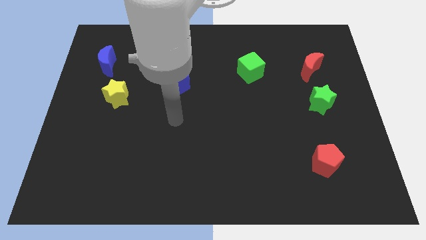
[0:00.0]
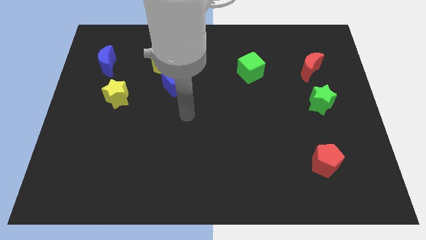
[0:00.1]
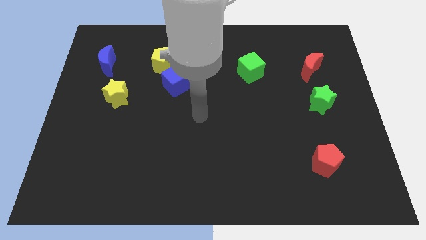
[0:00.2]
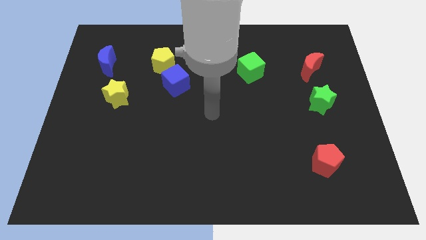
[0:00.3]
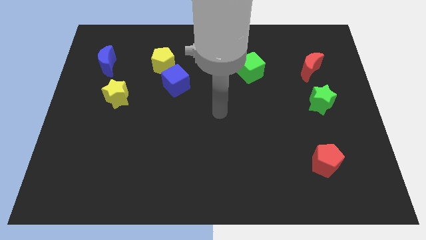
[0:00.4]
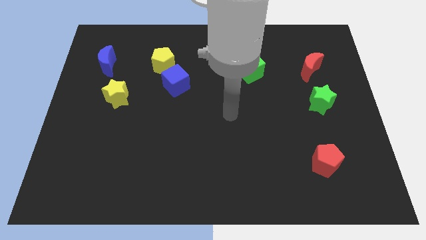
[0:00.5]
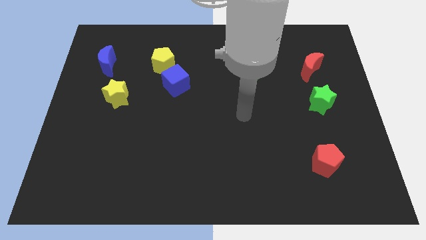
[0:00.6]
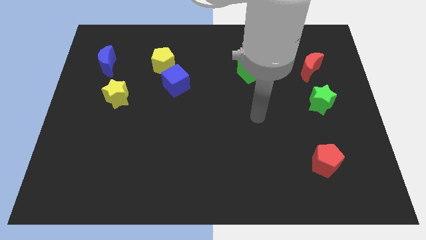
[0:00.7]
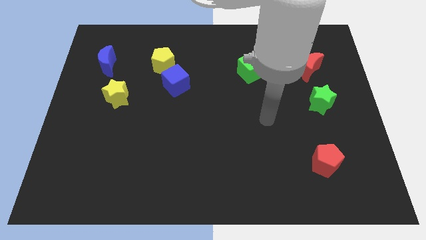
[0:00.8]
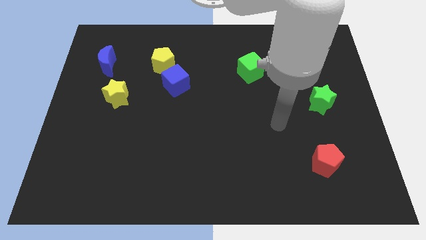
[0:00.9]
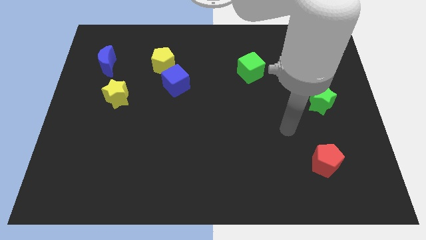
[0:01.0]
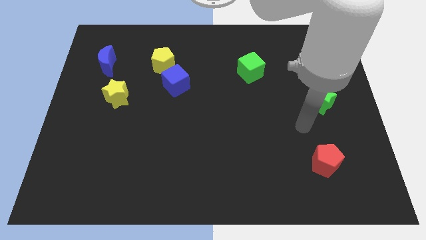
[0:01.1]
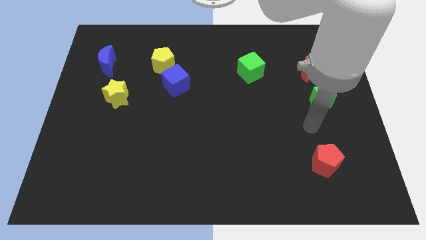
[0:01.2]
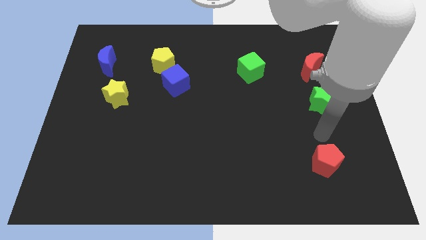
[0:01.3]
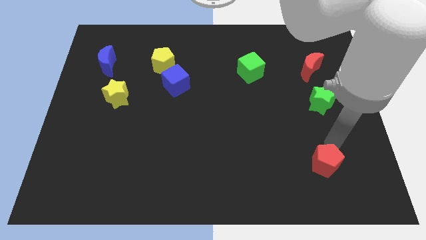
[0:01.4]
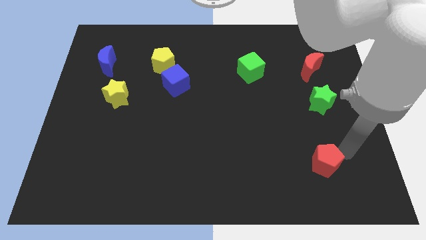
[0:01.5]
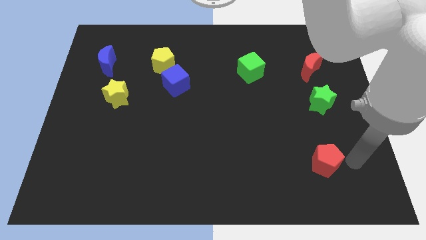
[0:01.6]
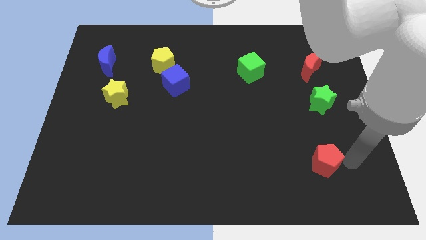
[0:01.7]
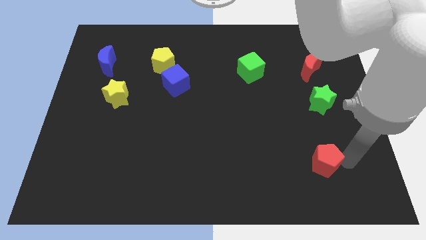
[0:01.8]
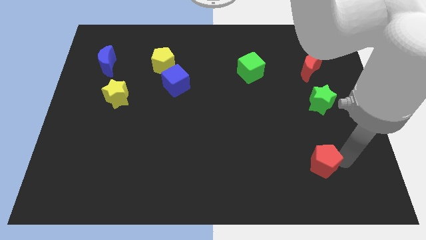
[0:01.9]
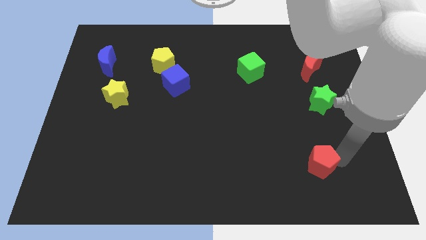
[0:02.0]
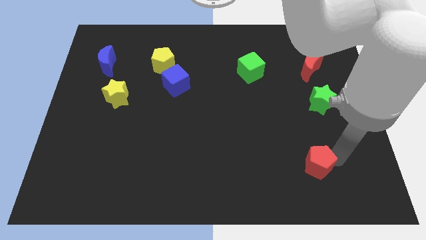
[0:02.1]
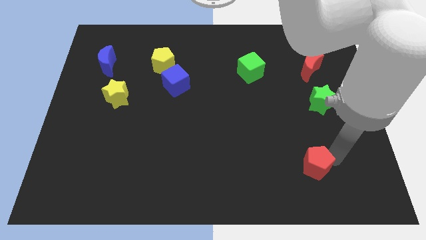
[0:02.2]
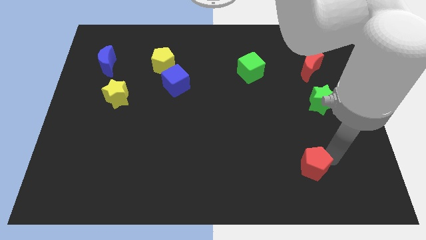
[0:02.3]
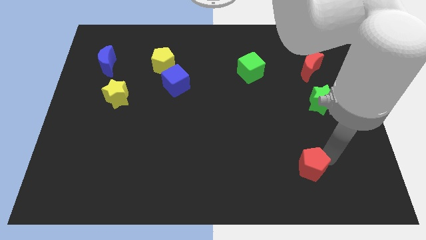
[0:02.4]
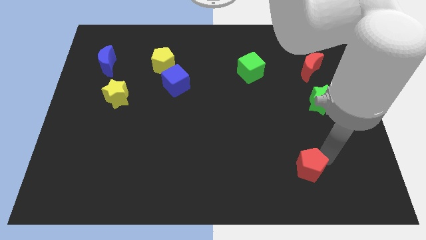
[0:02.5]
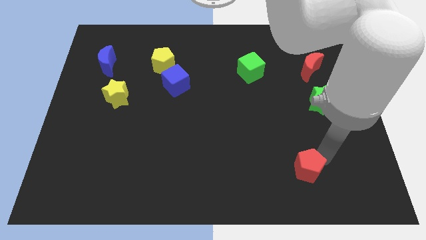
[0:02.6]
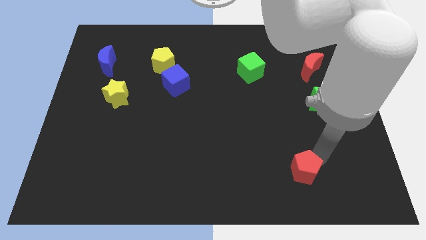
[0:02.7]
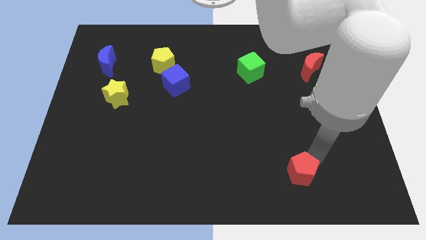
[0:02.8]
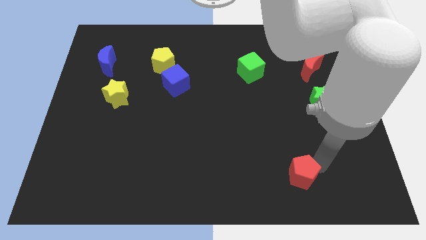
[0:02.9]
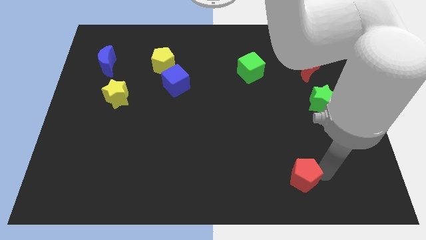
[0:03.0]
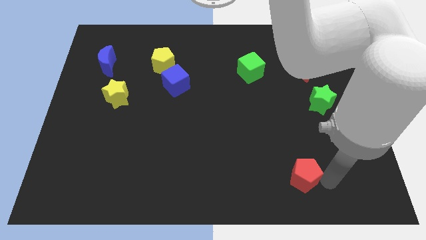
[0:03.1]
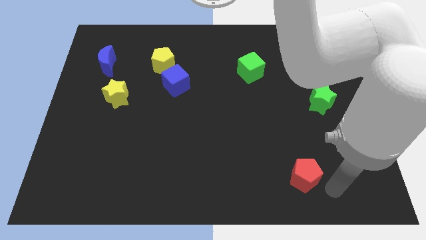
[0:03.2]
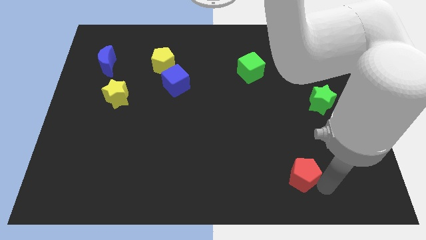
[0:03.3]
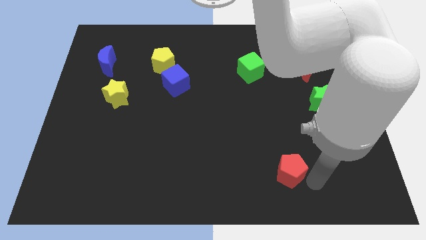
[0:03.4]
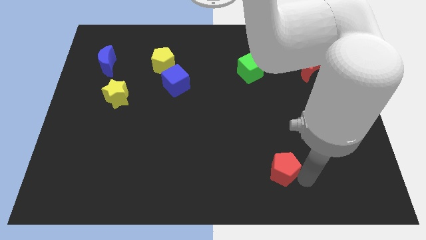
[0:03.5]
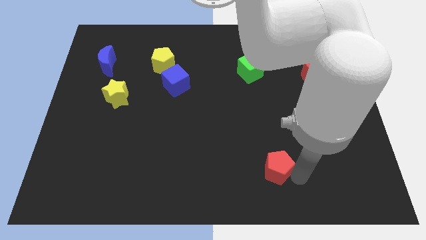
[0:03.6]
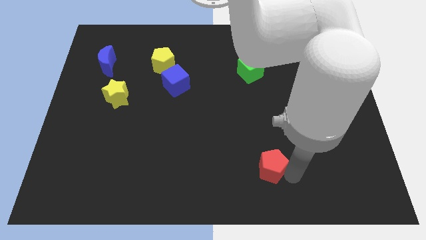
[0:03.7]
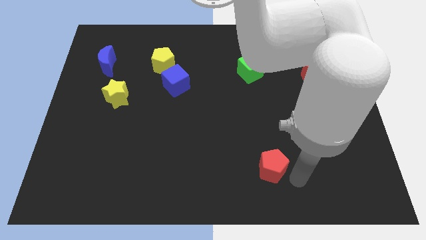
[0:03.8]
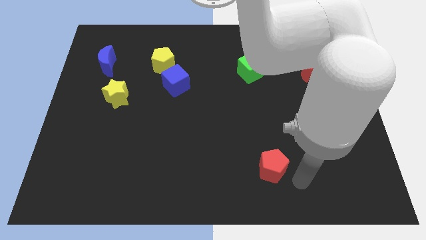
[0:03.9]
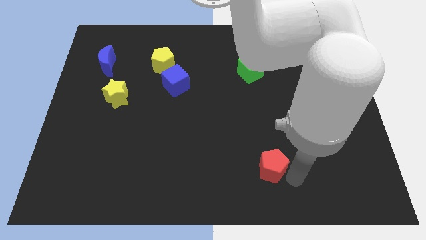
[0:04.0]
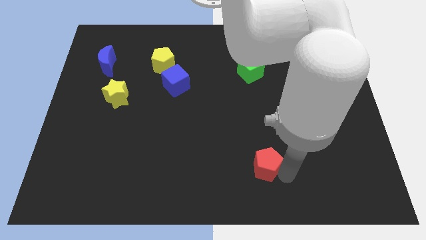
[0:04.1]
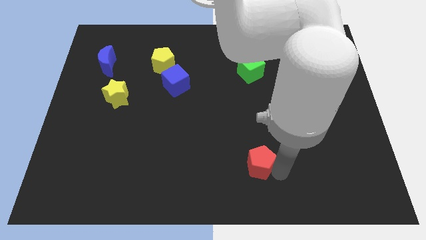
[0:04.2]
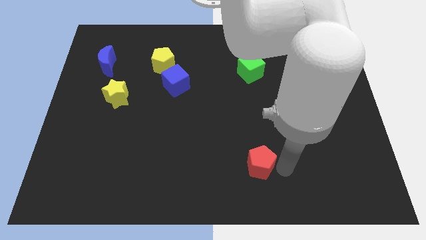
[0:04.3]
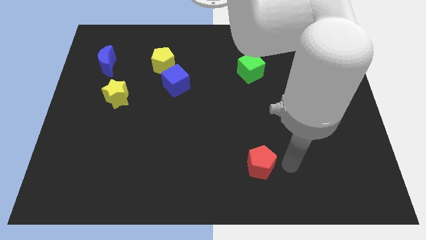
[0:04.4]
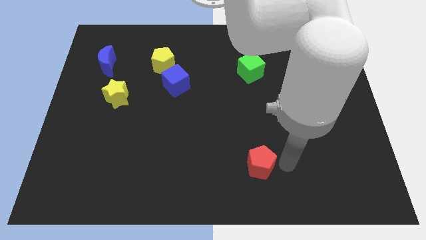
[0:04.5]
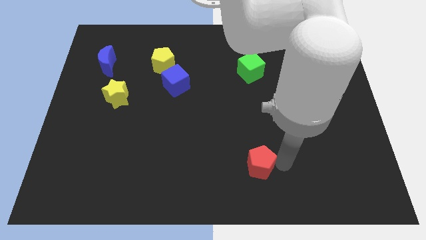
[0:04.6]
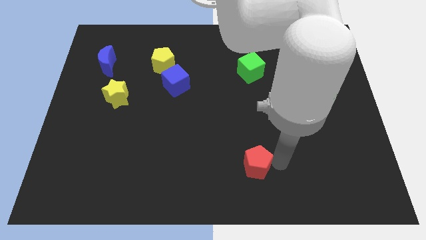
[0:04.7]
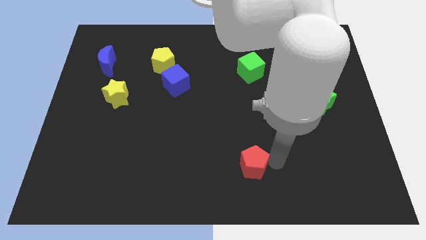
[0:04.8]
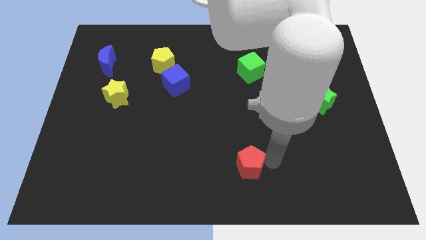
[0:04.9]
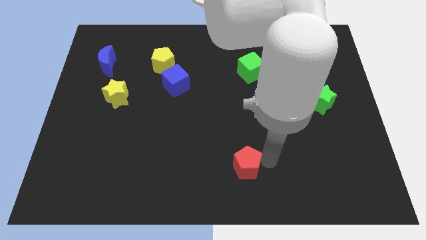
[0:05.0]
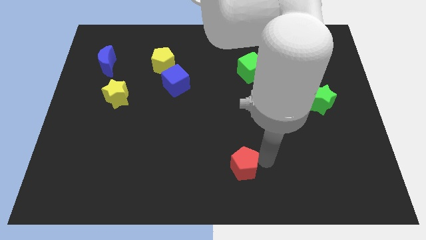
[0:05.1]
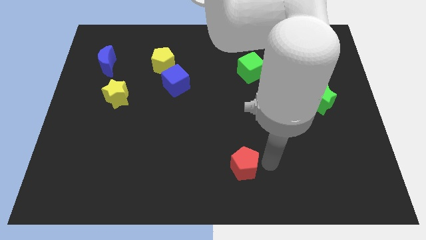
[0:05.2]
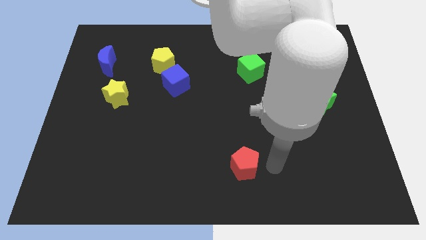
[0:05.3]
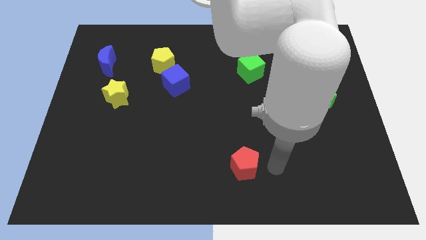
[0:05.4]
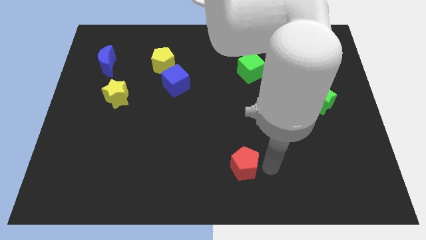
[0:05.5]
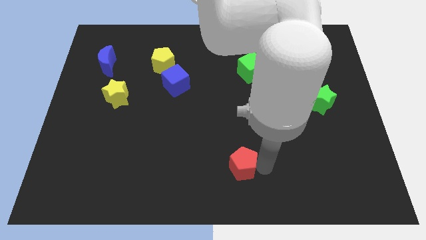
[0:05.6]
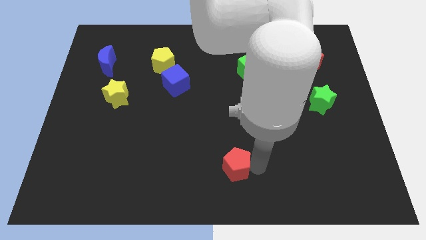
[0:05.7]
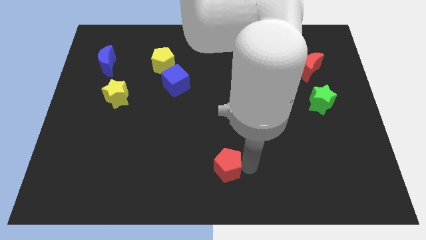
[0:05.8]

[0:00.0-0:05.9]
slide the red pentagon left

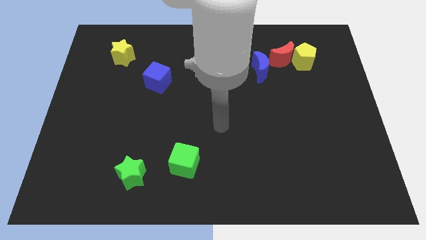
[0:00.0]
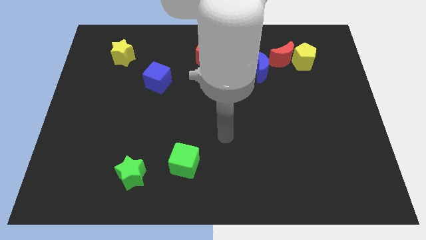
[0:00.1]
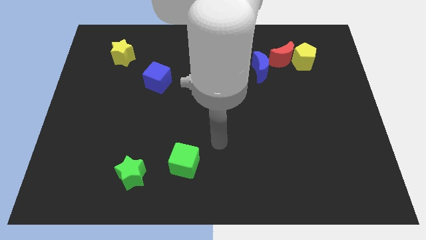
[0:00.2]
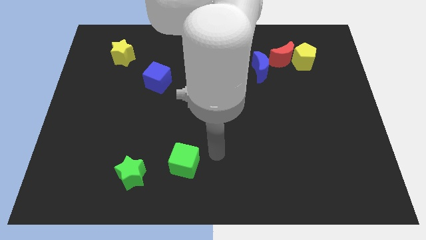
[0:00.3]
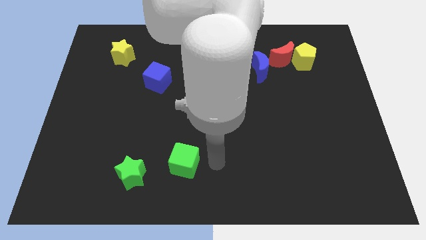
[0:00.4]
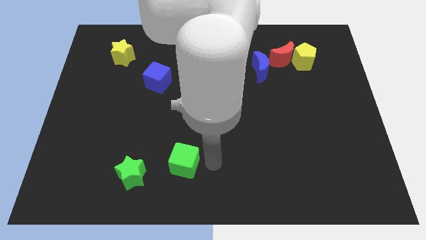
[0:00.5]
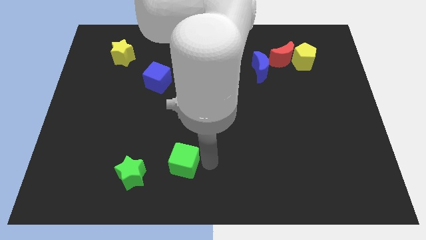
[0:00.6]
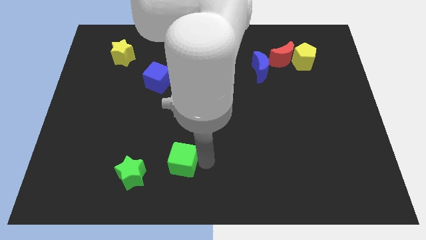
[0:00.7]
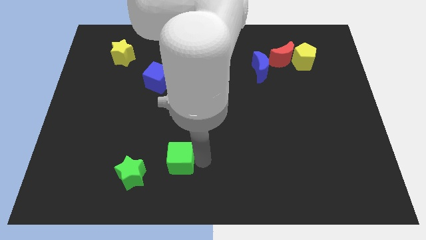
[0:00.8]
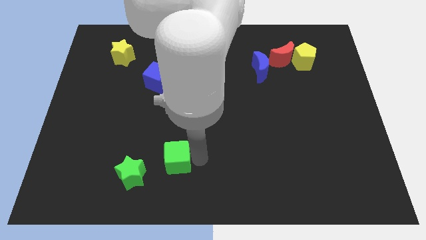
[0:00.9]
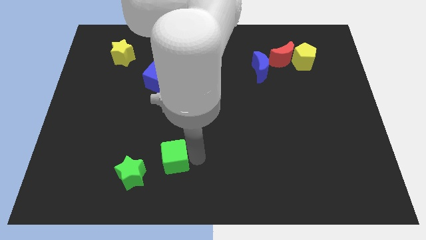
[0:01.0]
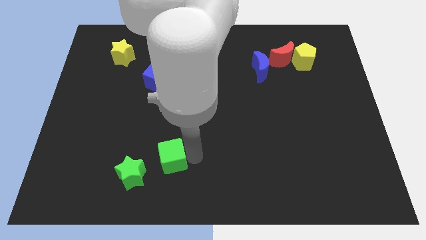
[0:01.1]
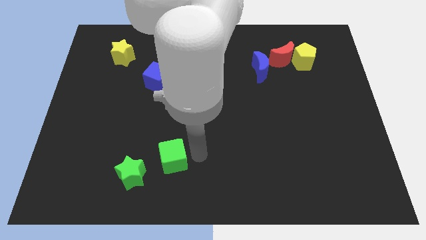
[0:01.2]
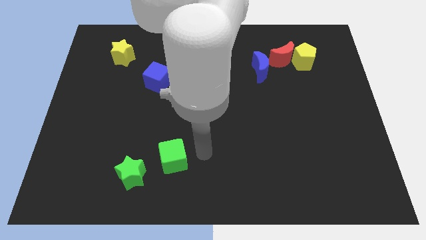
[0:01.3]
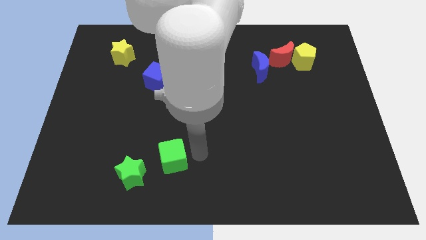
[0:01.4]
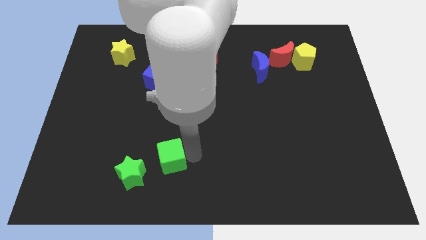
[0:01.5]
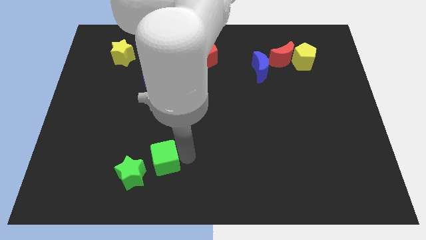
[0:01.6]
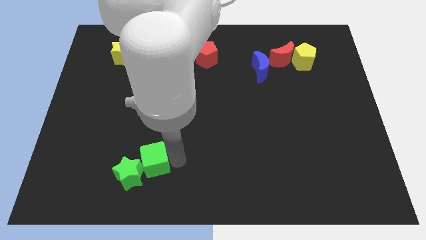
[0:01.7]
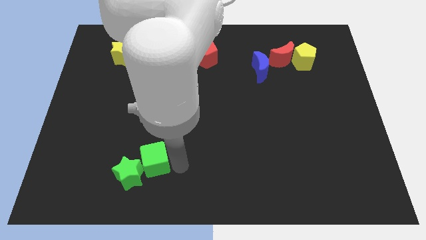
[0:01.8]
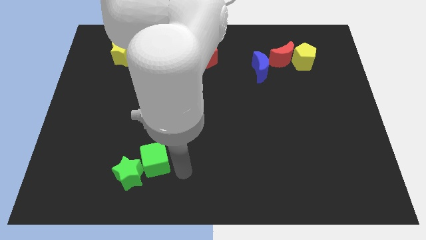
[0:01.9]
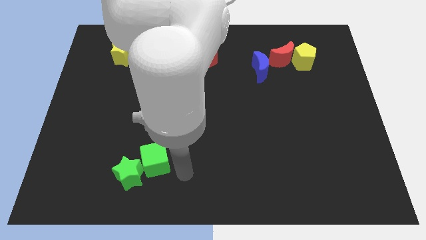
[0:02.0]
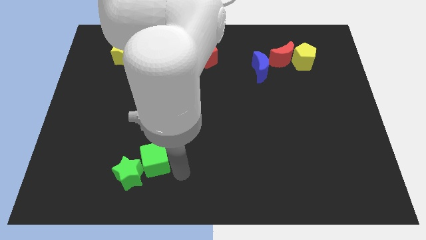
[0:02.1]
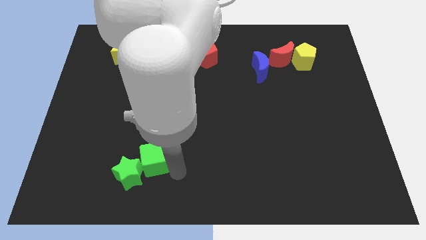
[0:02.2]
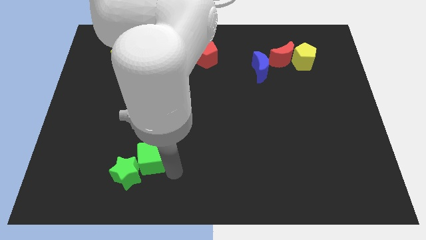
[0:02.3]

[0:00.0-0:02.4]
slightly slide the green cube to the left
